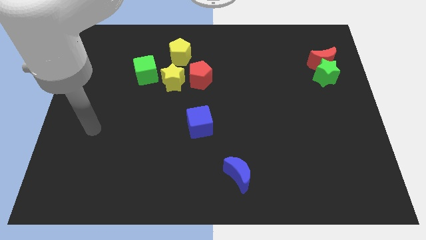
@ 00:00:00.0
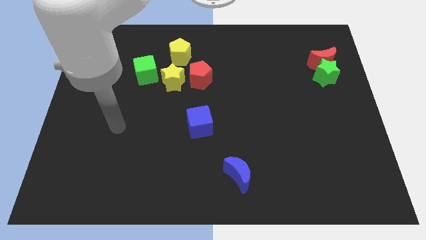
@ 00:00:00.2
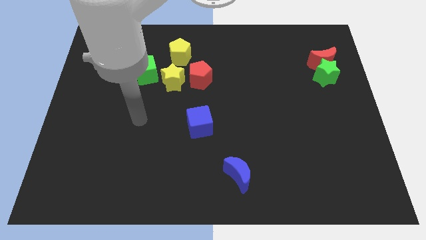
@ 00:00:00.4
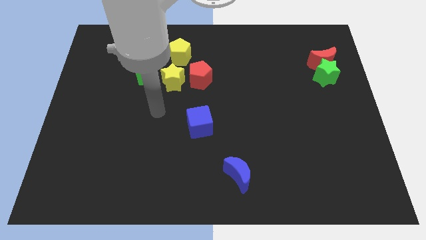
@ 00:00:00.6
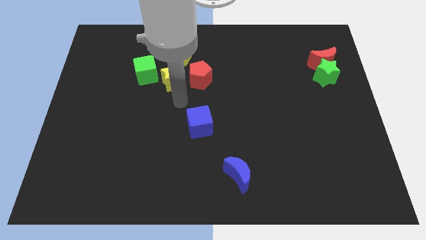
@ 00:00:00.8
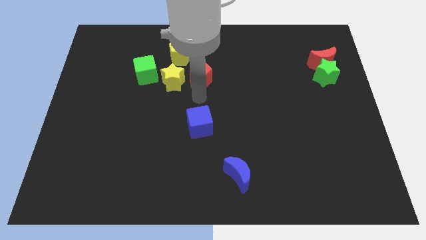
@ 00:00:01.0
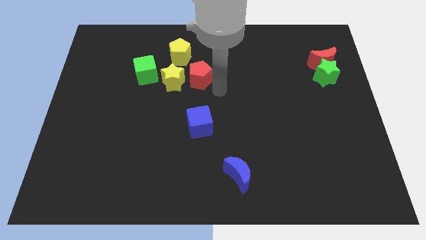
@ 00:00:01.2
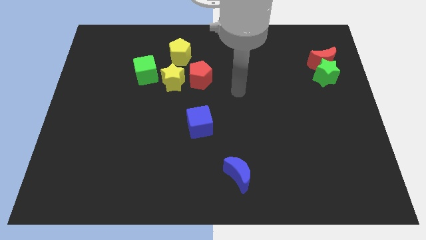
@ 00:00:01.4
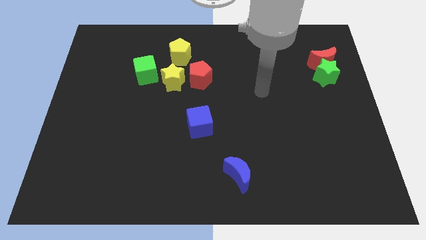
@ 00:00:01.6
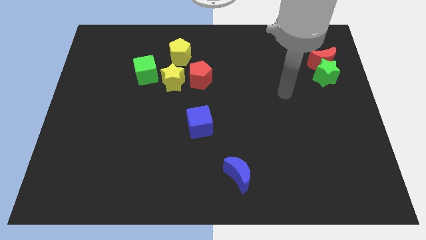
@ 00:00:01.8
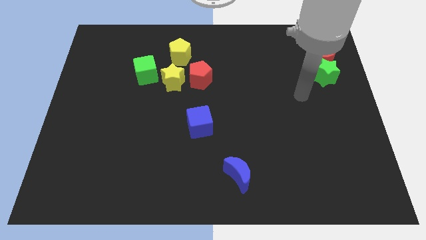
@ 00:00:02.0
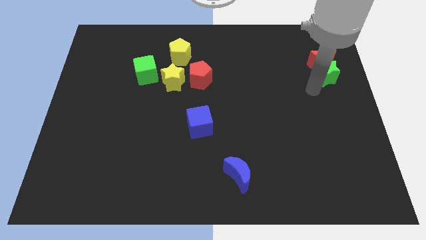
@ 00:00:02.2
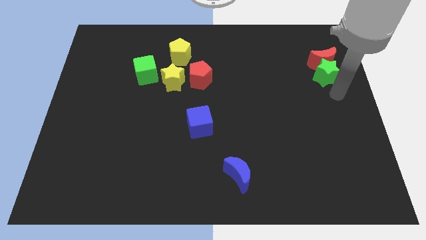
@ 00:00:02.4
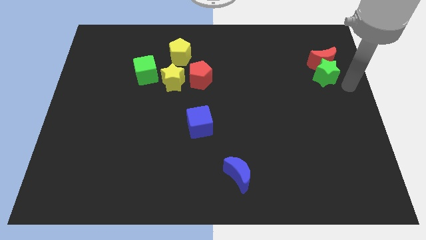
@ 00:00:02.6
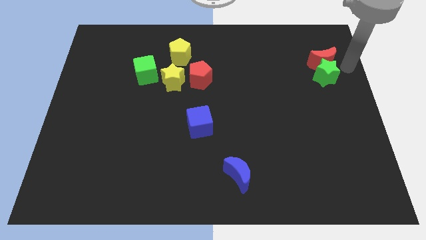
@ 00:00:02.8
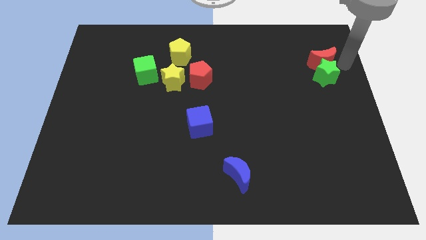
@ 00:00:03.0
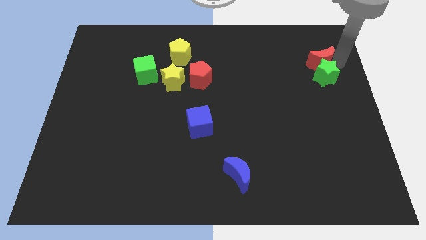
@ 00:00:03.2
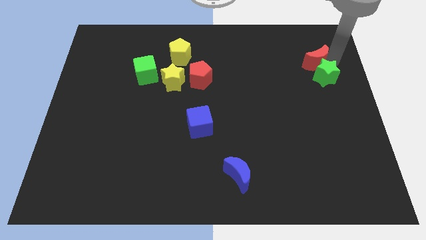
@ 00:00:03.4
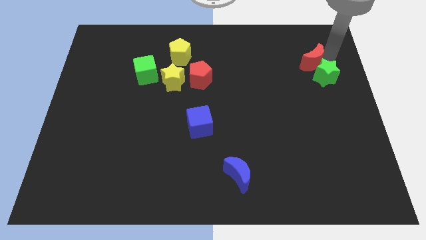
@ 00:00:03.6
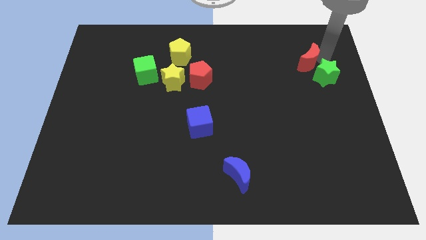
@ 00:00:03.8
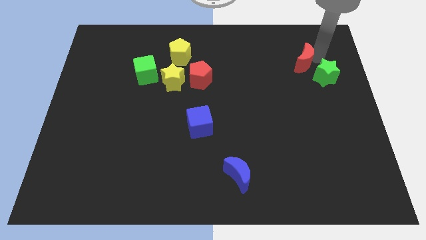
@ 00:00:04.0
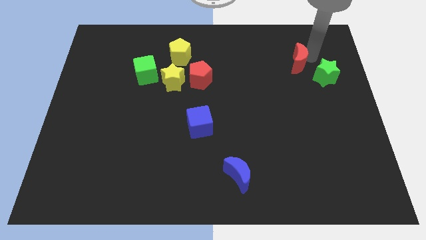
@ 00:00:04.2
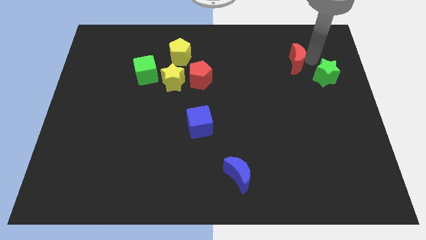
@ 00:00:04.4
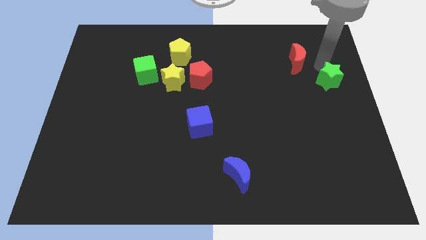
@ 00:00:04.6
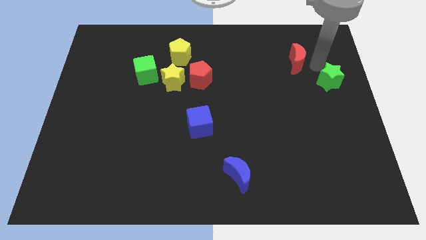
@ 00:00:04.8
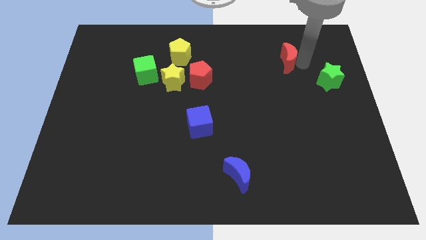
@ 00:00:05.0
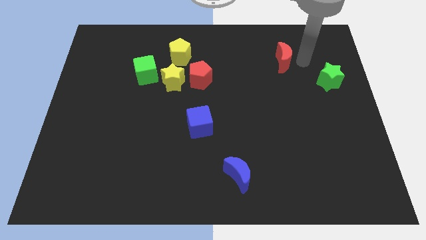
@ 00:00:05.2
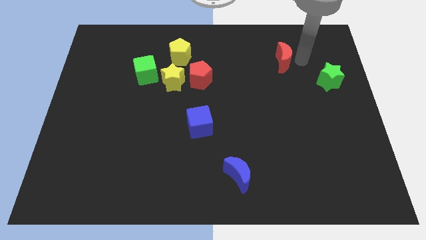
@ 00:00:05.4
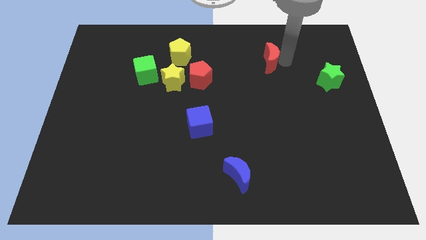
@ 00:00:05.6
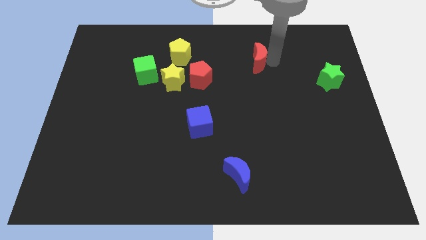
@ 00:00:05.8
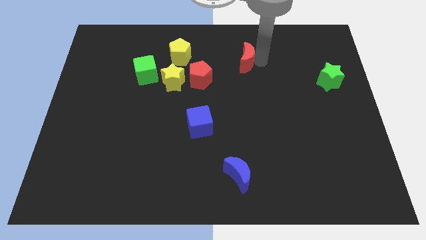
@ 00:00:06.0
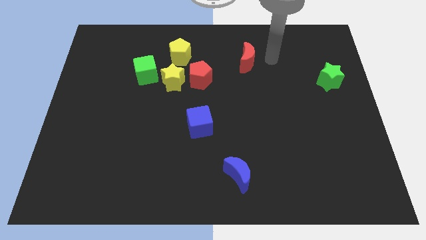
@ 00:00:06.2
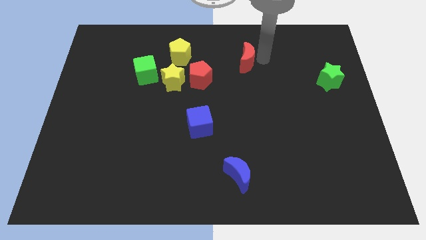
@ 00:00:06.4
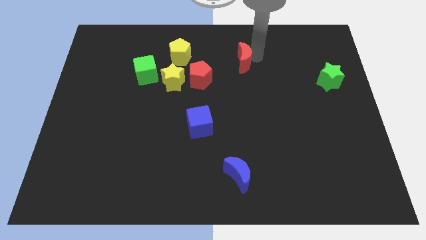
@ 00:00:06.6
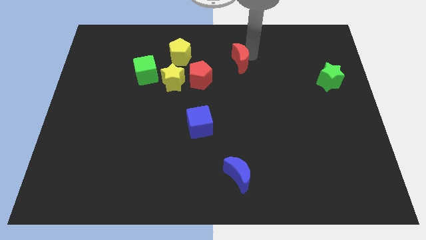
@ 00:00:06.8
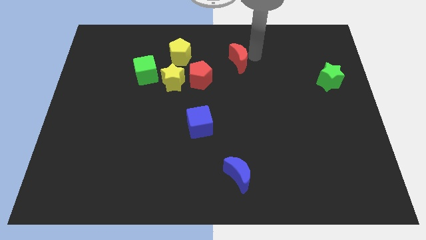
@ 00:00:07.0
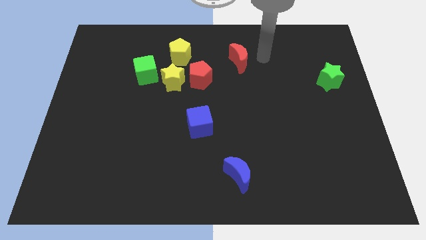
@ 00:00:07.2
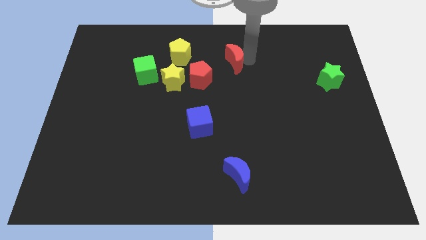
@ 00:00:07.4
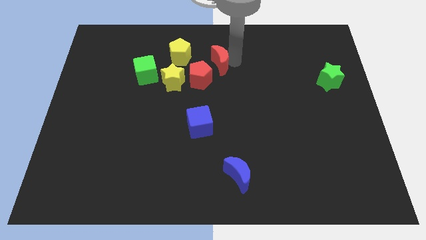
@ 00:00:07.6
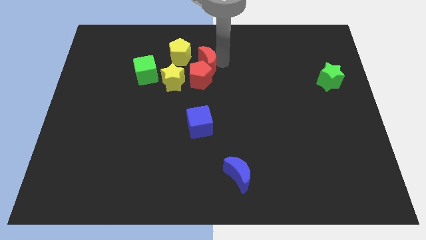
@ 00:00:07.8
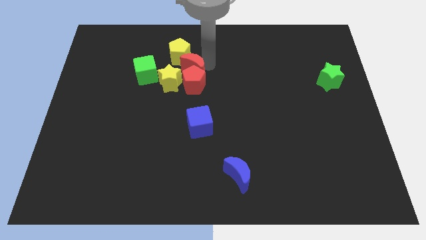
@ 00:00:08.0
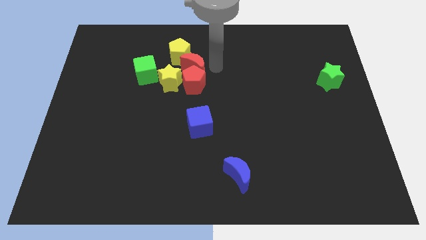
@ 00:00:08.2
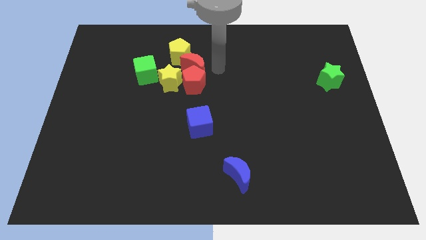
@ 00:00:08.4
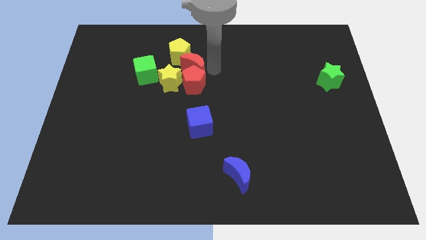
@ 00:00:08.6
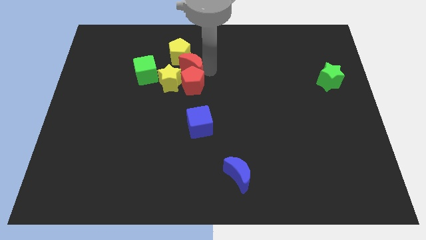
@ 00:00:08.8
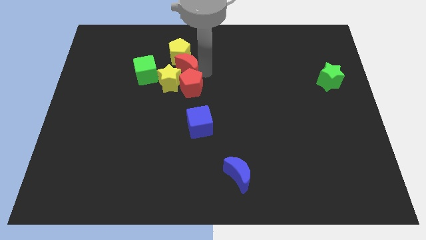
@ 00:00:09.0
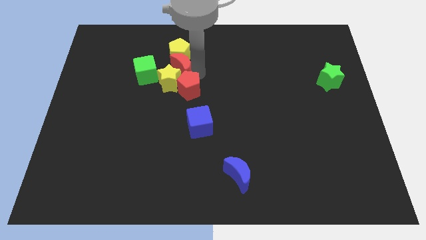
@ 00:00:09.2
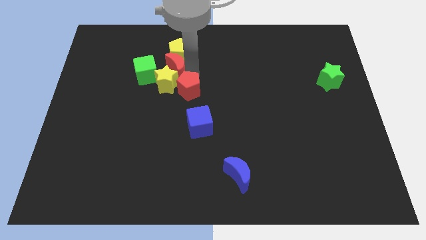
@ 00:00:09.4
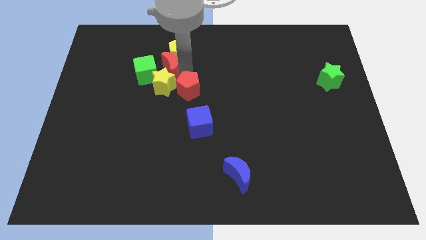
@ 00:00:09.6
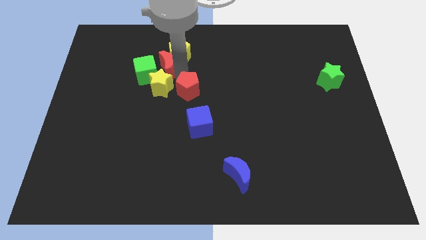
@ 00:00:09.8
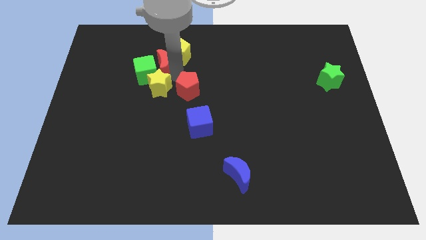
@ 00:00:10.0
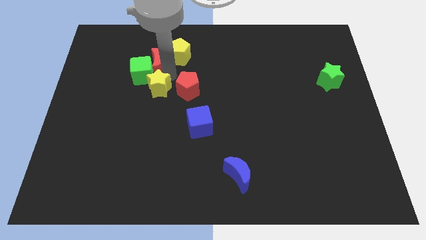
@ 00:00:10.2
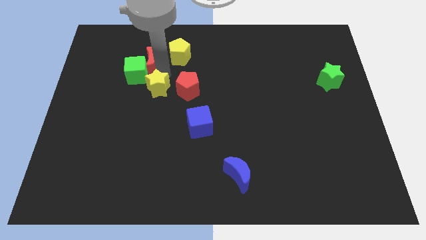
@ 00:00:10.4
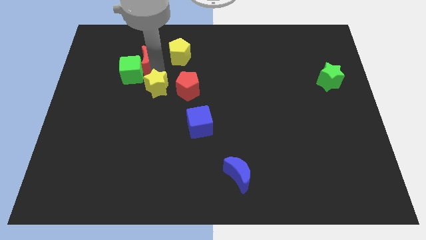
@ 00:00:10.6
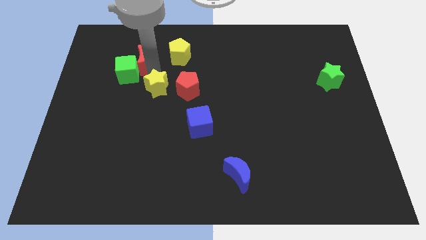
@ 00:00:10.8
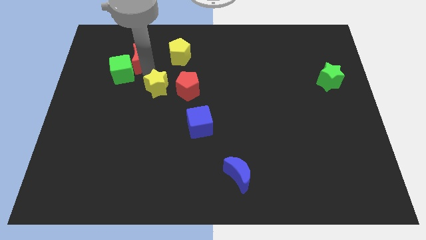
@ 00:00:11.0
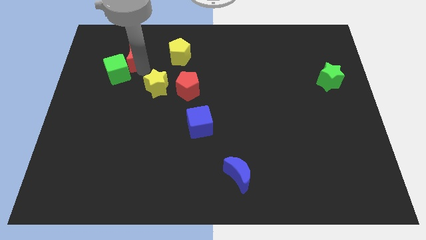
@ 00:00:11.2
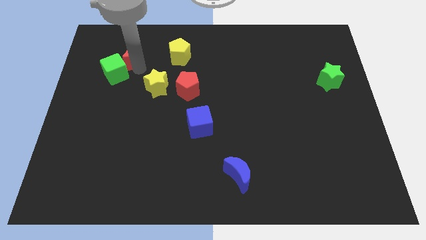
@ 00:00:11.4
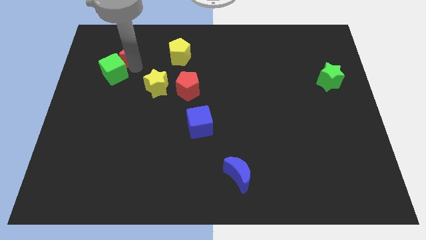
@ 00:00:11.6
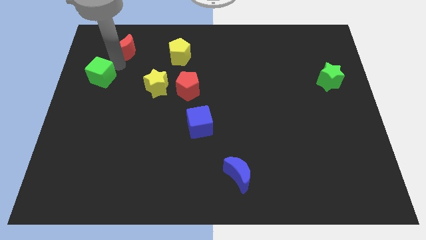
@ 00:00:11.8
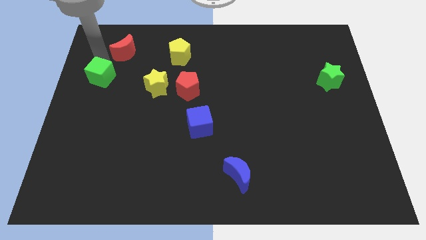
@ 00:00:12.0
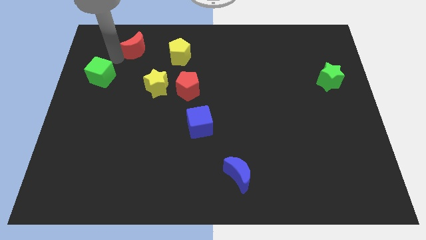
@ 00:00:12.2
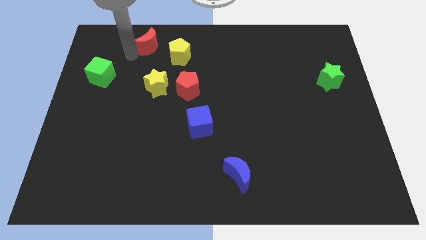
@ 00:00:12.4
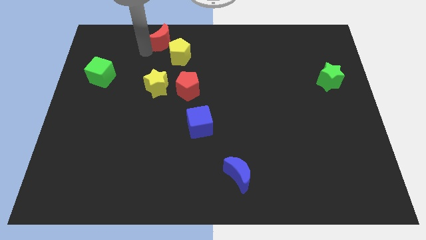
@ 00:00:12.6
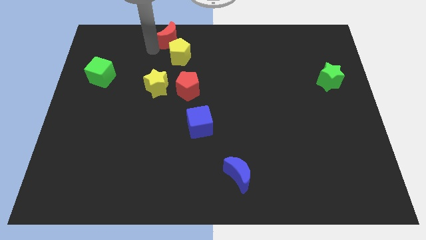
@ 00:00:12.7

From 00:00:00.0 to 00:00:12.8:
push the red moon to the top side
